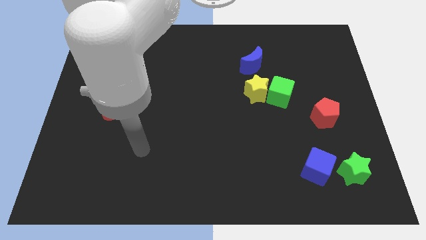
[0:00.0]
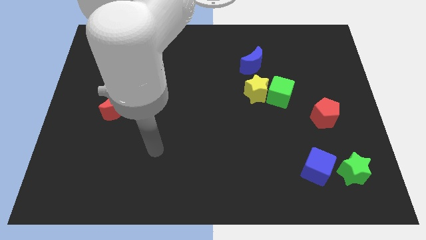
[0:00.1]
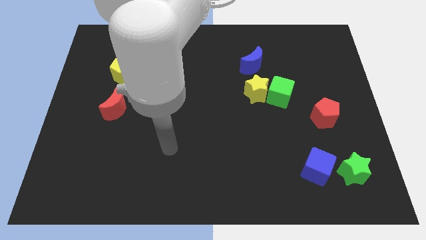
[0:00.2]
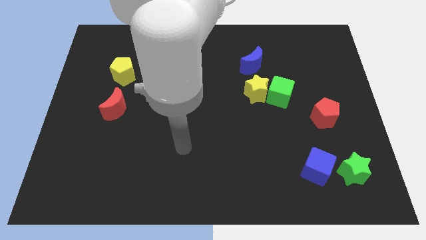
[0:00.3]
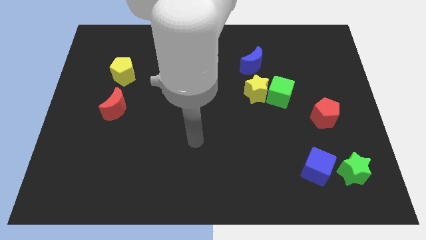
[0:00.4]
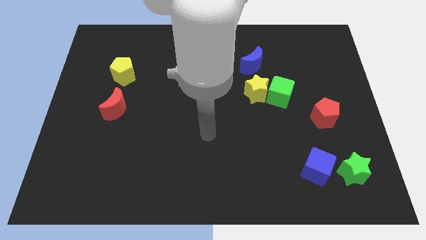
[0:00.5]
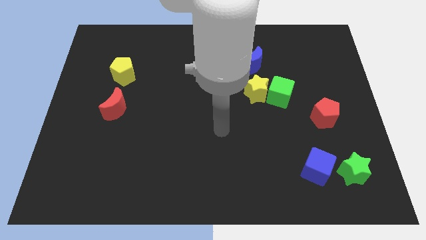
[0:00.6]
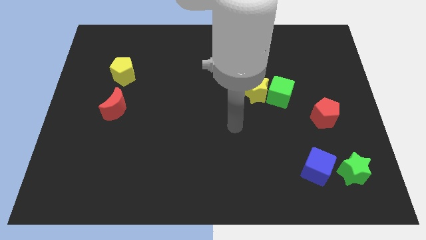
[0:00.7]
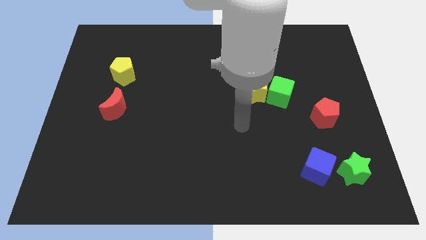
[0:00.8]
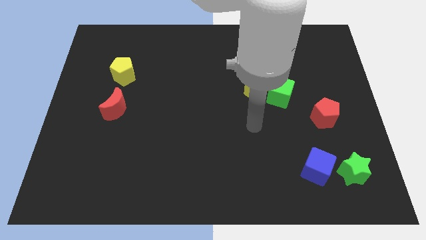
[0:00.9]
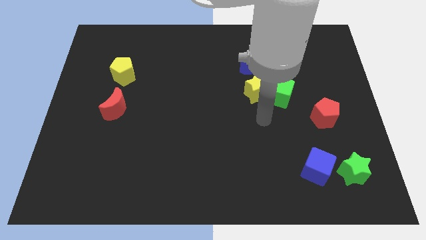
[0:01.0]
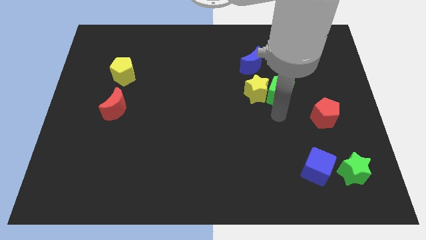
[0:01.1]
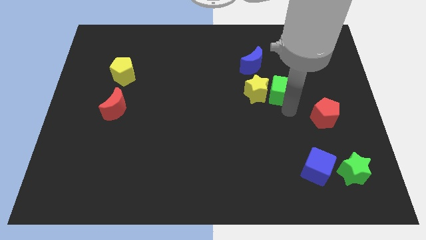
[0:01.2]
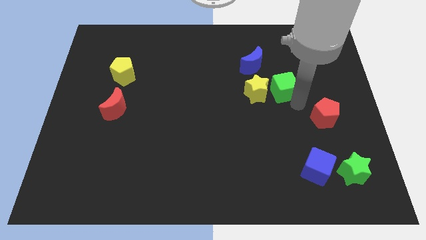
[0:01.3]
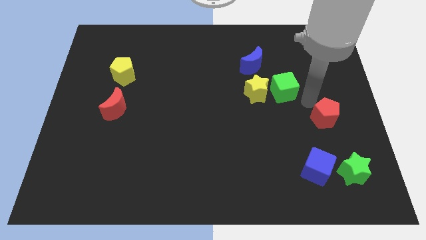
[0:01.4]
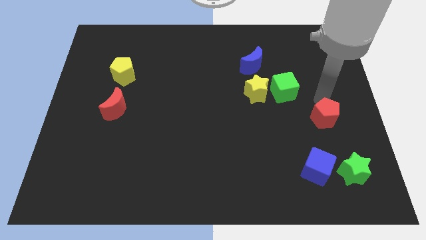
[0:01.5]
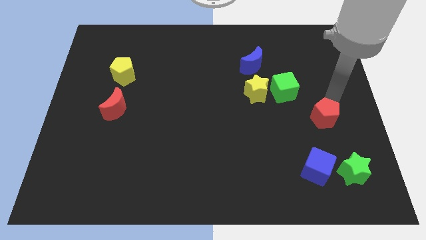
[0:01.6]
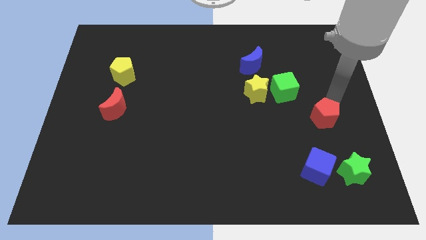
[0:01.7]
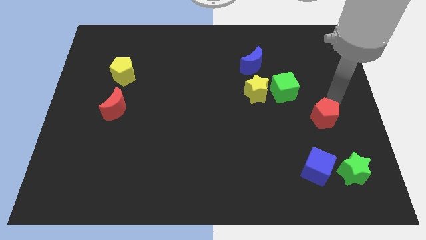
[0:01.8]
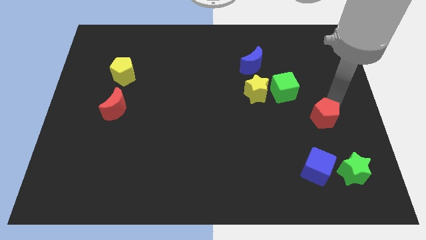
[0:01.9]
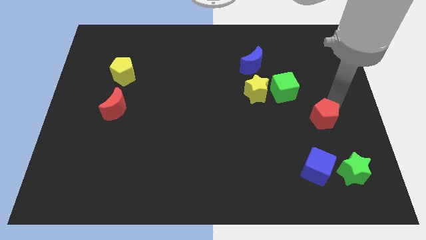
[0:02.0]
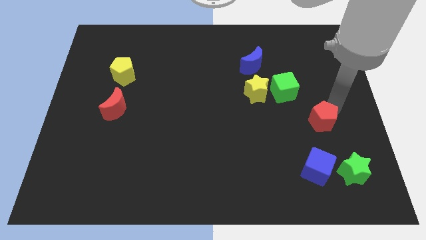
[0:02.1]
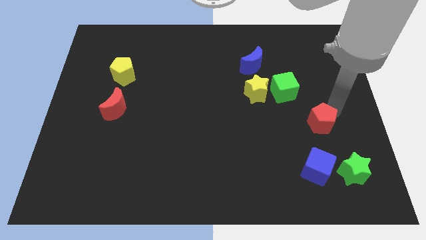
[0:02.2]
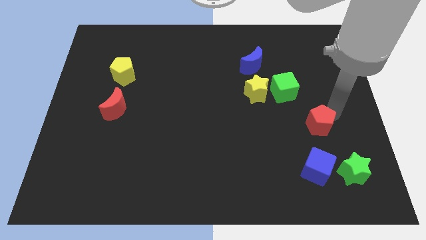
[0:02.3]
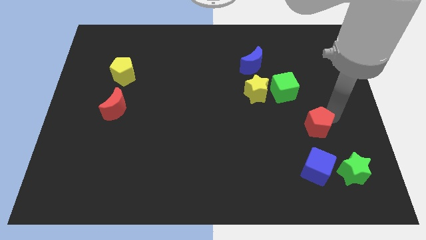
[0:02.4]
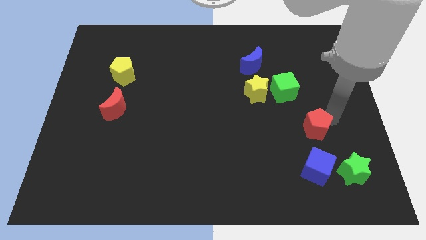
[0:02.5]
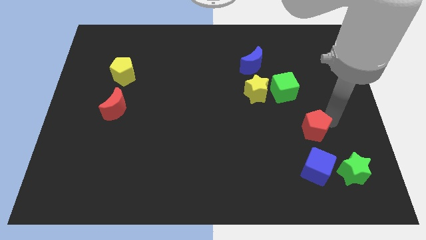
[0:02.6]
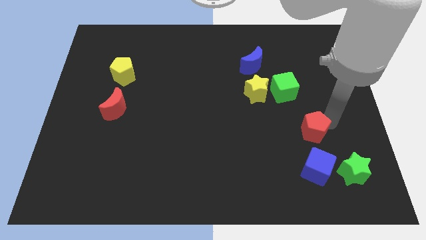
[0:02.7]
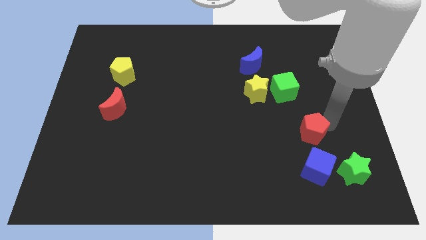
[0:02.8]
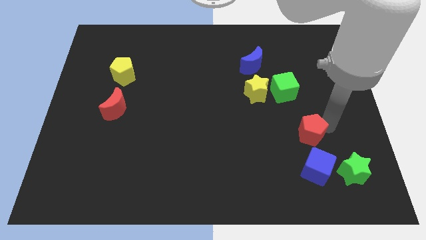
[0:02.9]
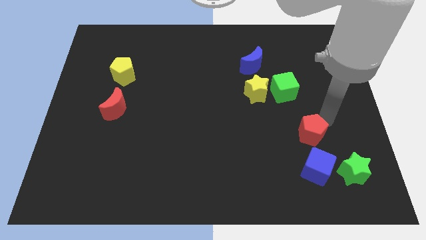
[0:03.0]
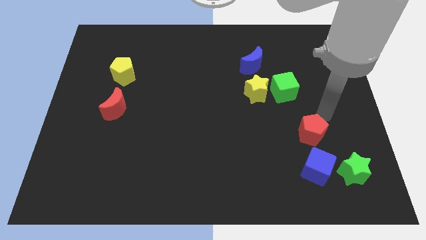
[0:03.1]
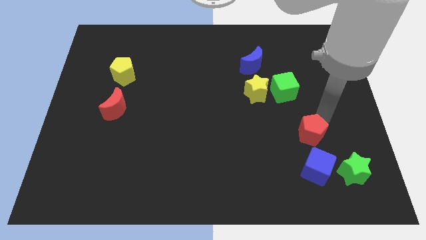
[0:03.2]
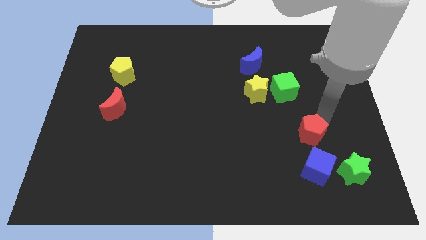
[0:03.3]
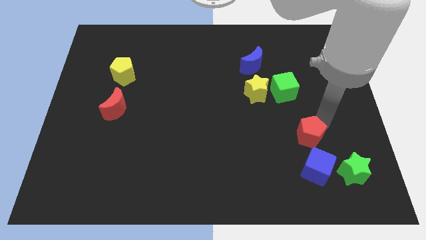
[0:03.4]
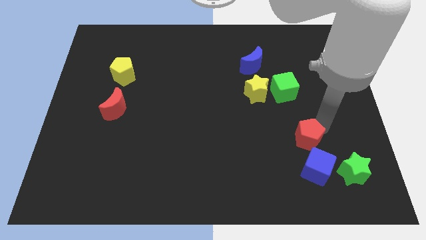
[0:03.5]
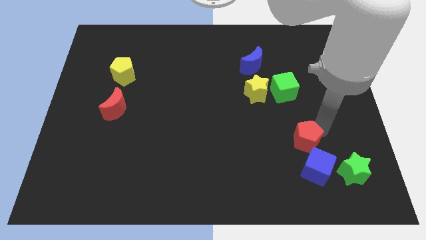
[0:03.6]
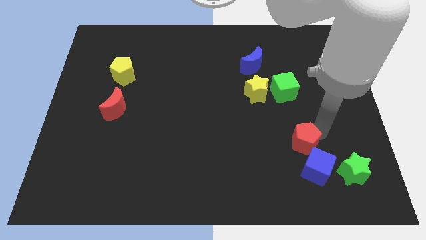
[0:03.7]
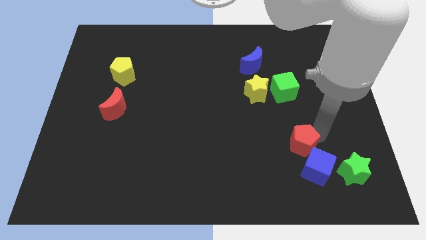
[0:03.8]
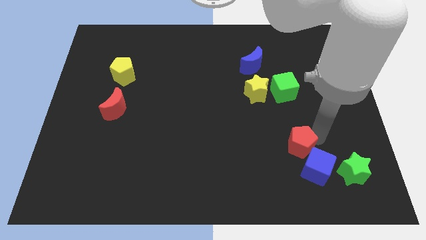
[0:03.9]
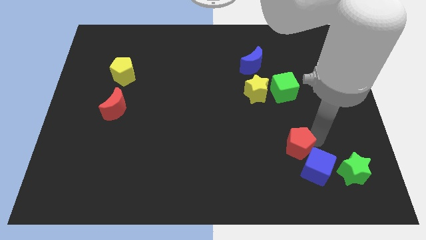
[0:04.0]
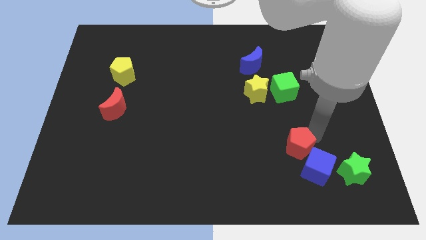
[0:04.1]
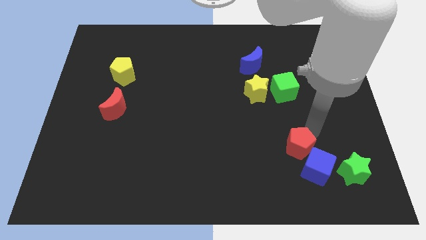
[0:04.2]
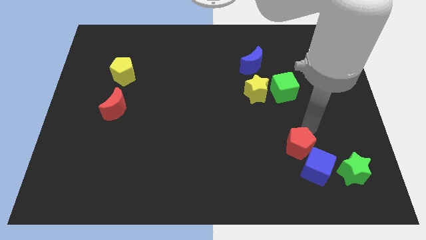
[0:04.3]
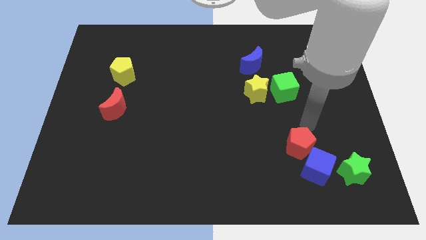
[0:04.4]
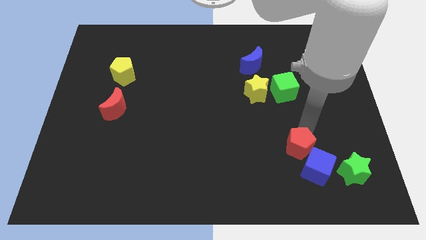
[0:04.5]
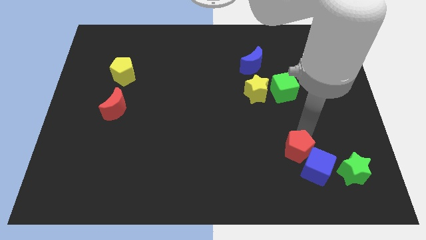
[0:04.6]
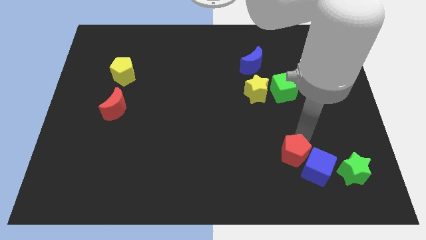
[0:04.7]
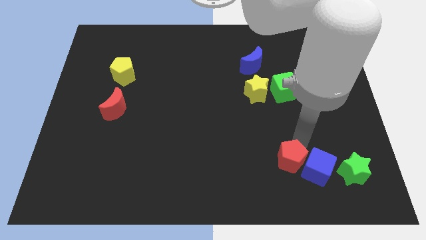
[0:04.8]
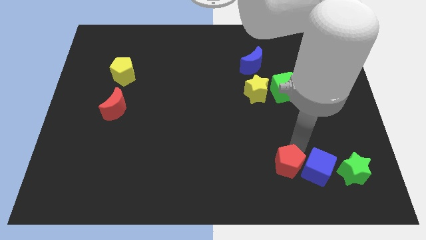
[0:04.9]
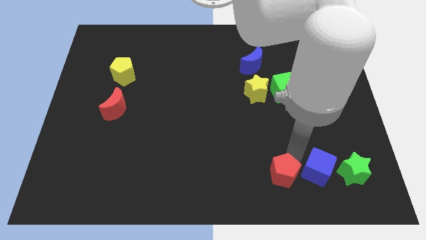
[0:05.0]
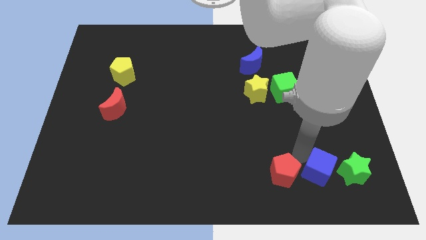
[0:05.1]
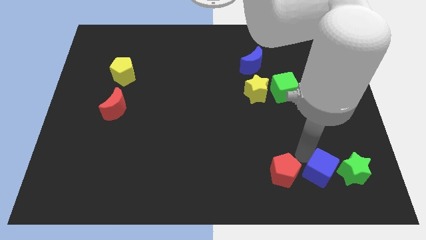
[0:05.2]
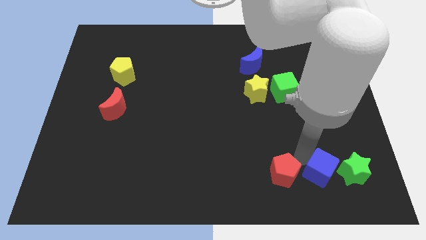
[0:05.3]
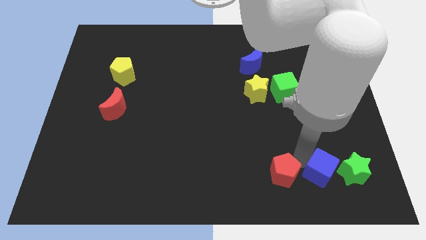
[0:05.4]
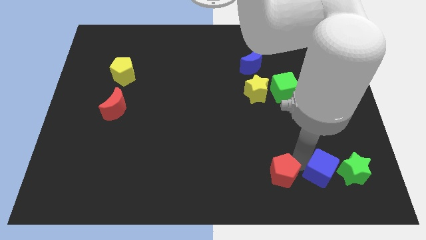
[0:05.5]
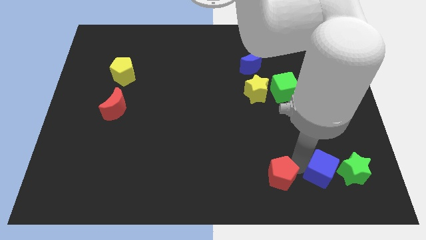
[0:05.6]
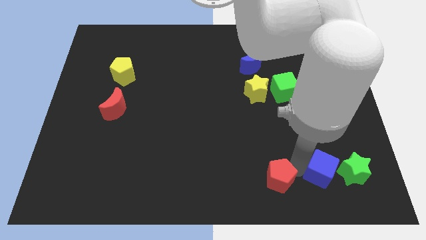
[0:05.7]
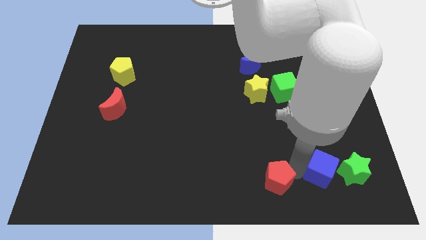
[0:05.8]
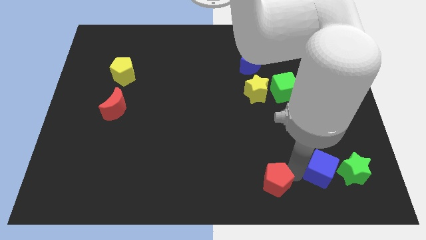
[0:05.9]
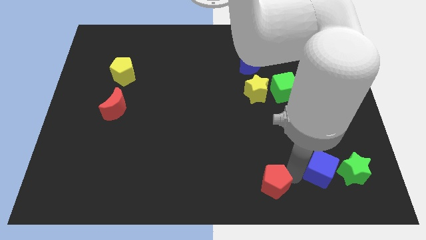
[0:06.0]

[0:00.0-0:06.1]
slide the red pentagon to the bottom side

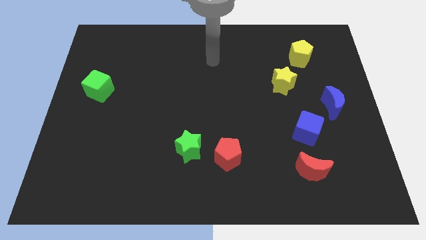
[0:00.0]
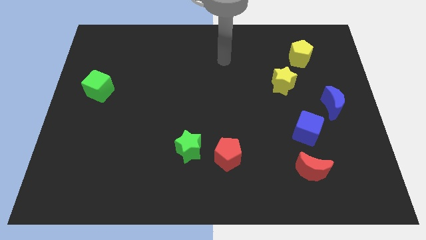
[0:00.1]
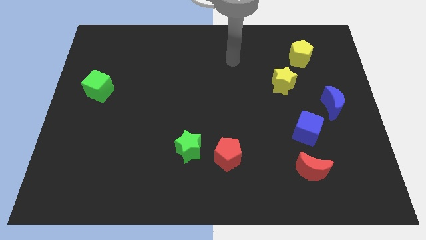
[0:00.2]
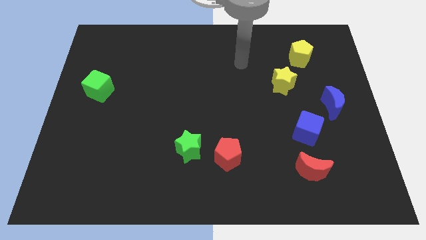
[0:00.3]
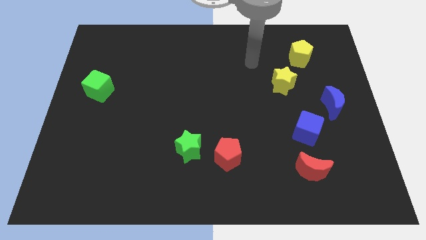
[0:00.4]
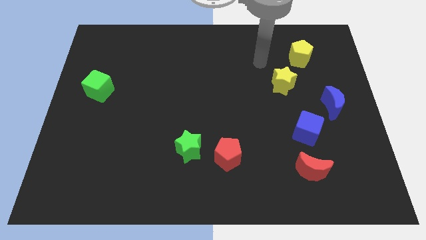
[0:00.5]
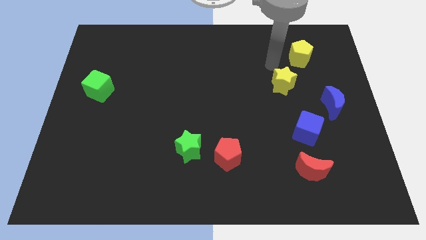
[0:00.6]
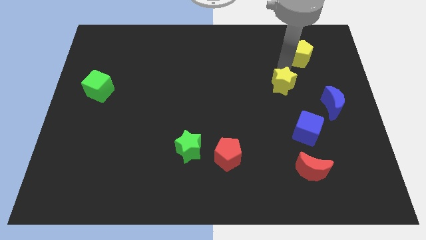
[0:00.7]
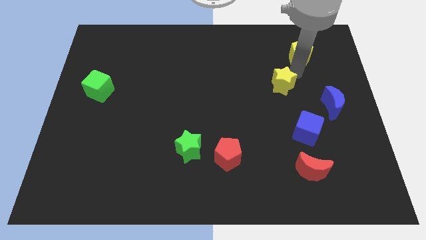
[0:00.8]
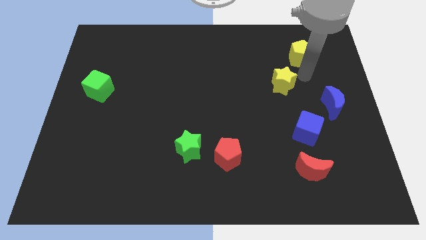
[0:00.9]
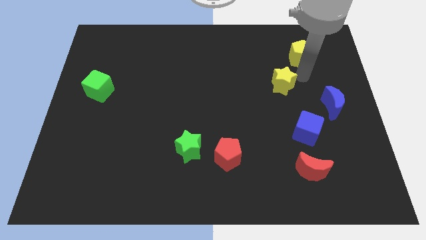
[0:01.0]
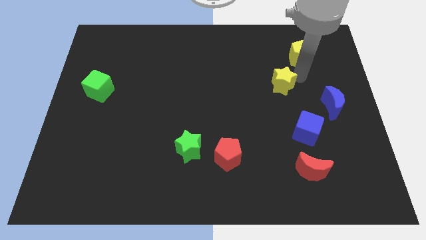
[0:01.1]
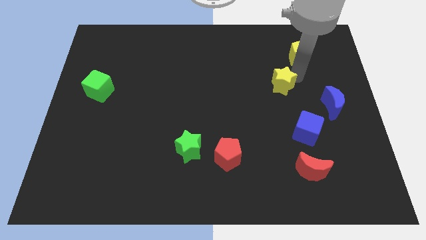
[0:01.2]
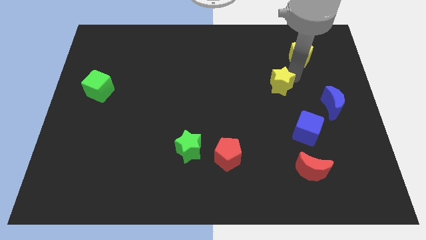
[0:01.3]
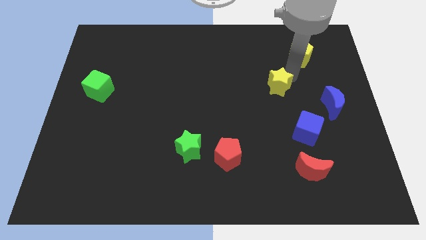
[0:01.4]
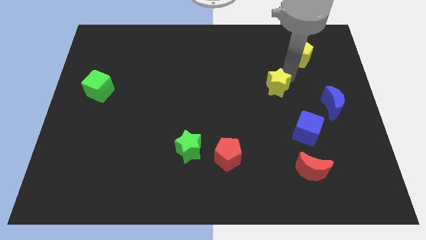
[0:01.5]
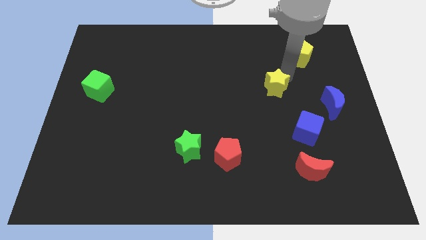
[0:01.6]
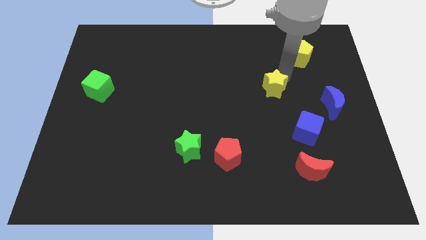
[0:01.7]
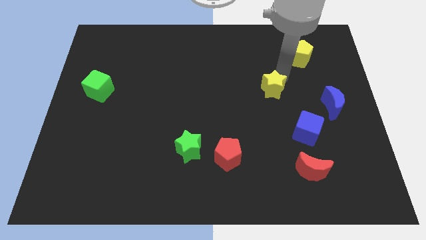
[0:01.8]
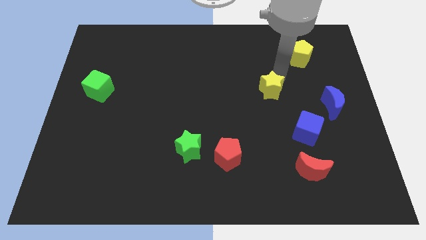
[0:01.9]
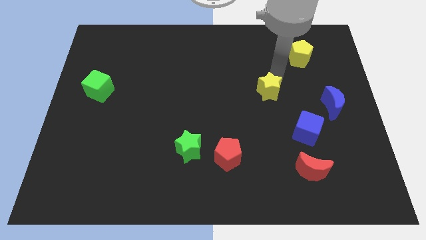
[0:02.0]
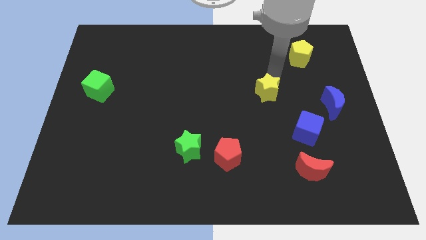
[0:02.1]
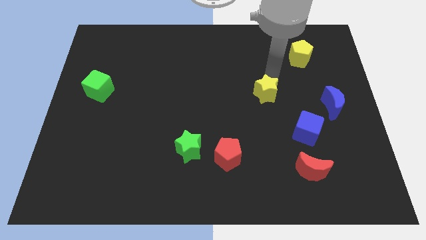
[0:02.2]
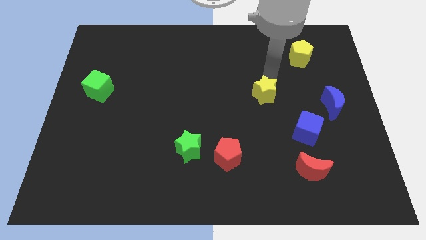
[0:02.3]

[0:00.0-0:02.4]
put the yellow star to the middle of the board
